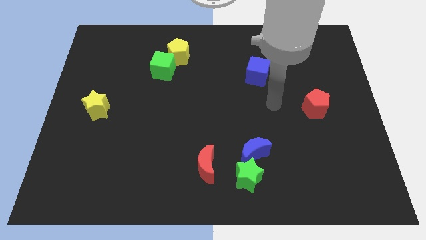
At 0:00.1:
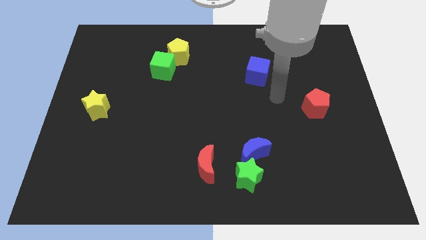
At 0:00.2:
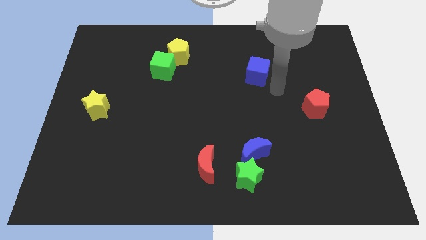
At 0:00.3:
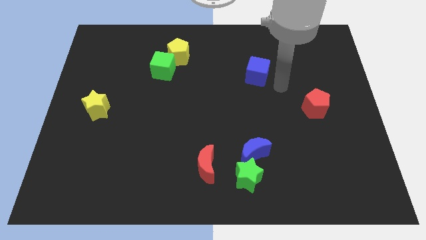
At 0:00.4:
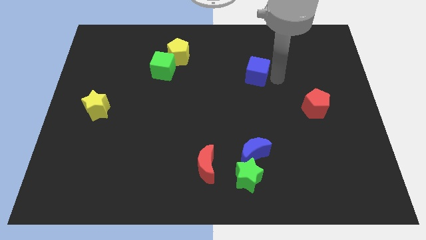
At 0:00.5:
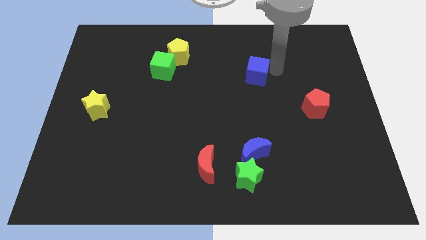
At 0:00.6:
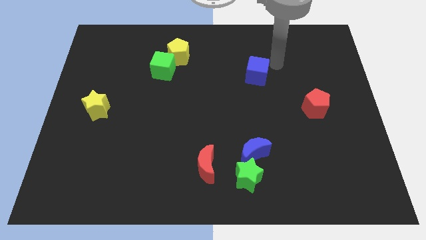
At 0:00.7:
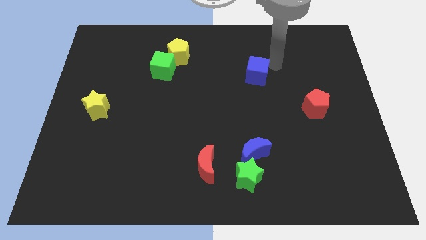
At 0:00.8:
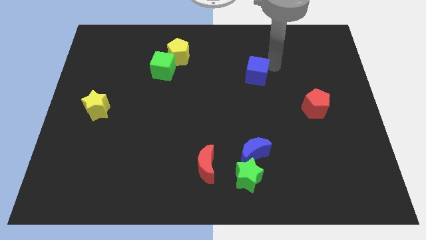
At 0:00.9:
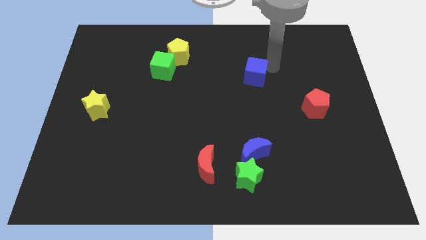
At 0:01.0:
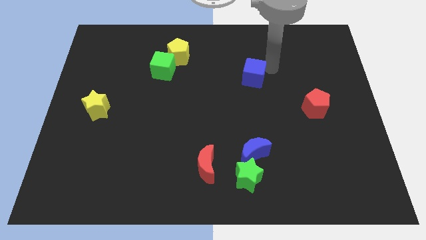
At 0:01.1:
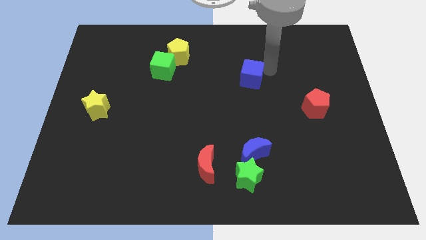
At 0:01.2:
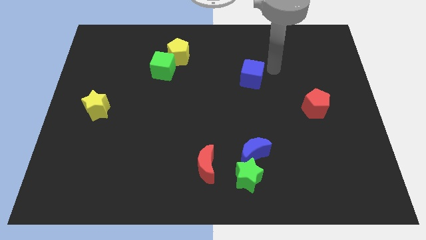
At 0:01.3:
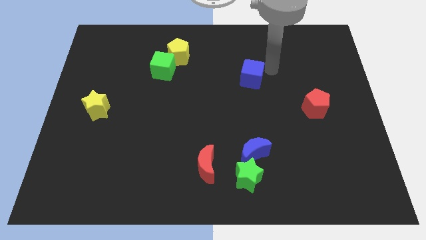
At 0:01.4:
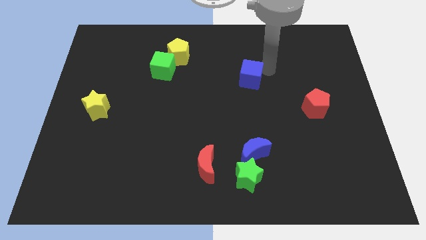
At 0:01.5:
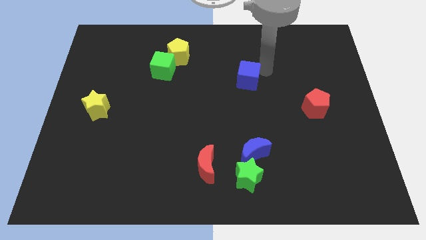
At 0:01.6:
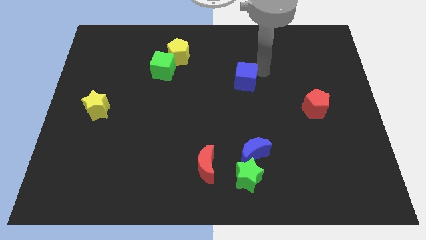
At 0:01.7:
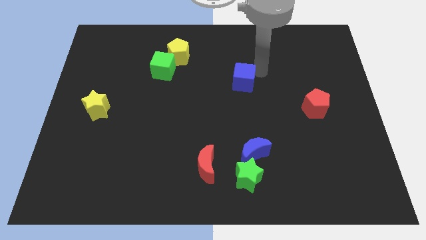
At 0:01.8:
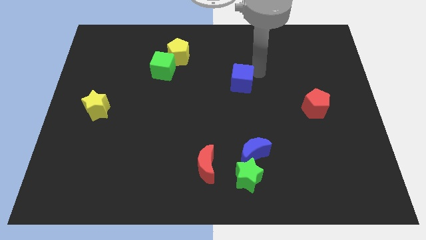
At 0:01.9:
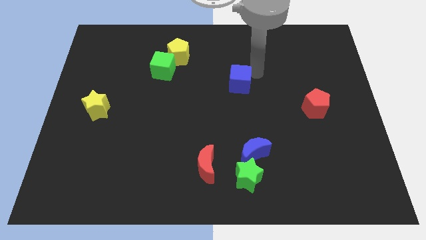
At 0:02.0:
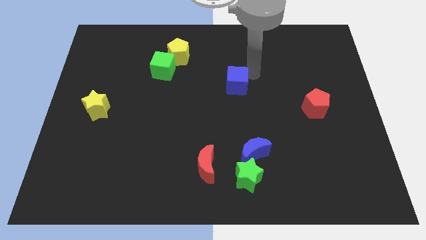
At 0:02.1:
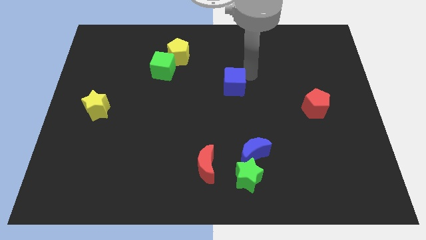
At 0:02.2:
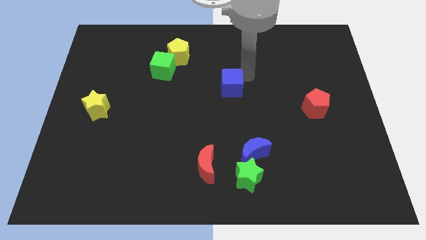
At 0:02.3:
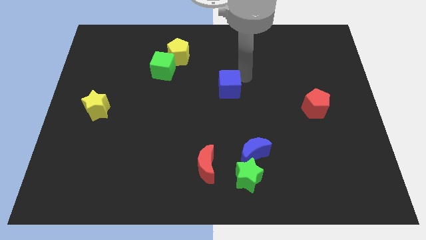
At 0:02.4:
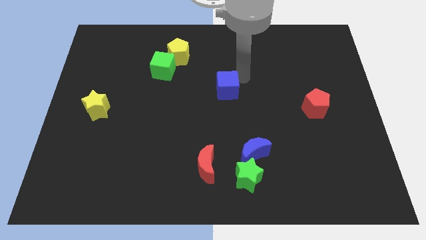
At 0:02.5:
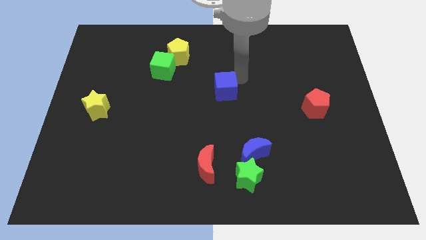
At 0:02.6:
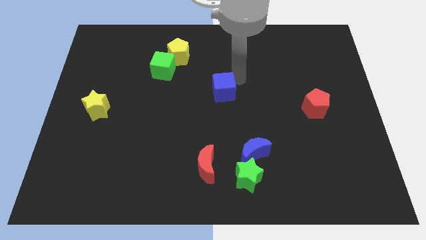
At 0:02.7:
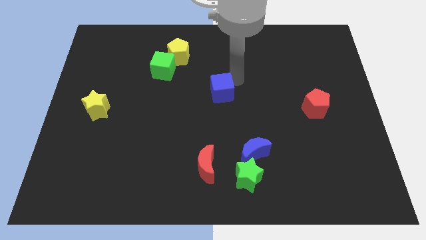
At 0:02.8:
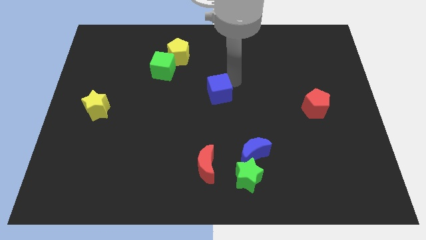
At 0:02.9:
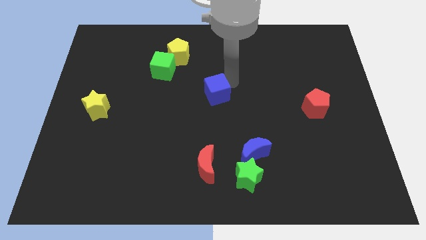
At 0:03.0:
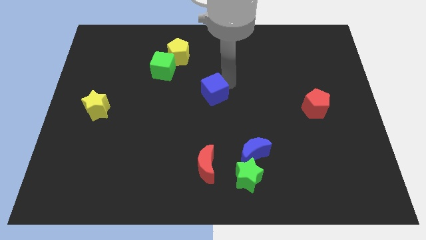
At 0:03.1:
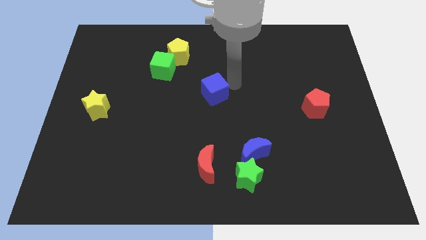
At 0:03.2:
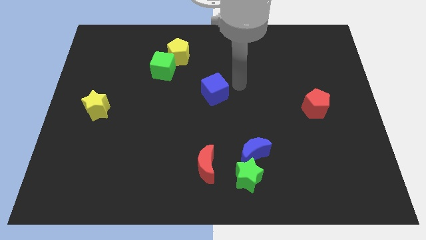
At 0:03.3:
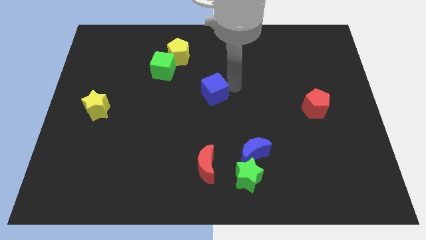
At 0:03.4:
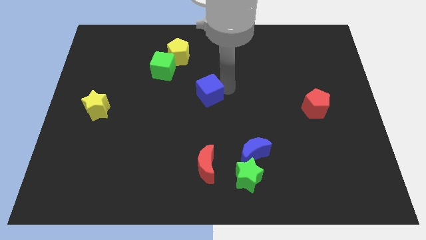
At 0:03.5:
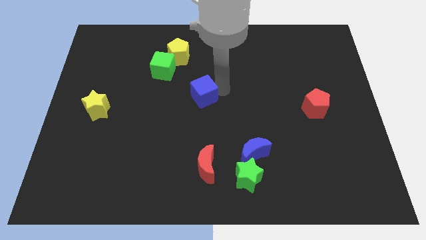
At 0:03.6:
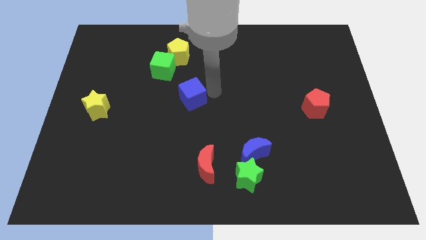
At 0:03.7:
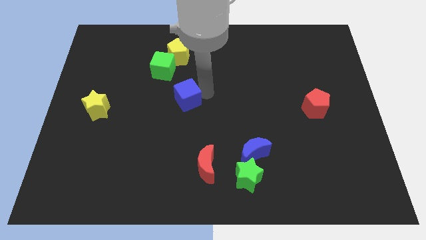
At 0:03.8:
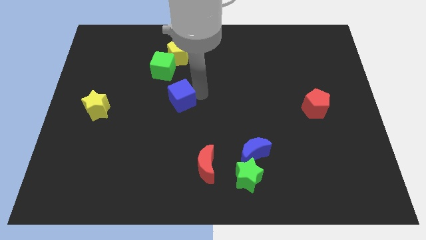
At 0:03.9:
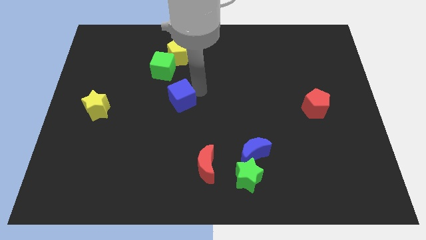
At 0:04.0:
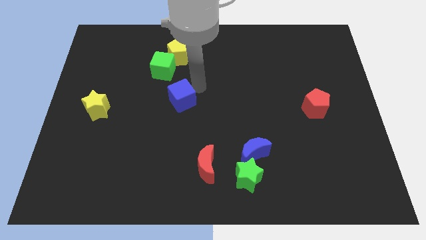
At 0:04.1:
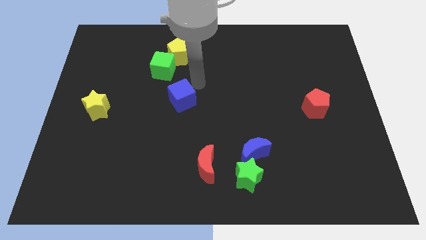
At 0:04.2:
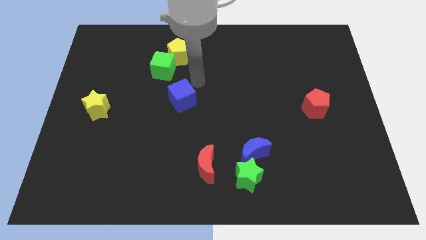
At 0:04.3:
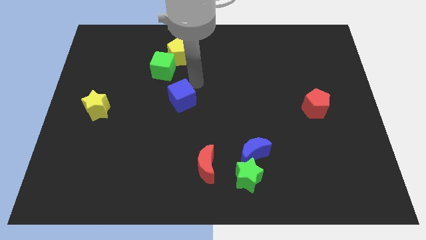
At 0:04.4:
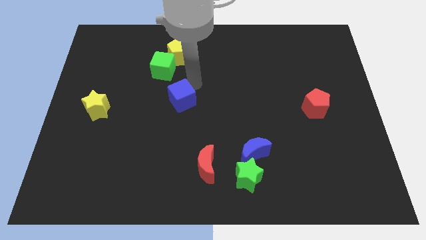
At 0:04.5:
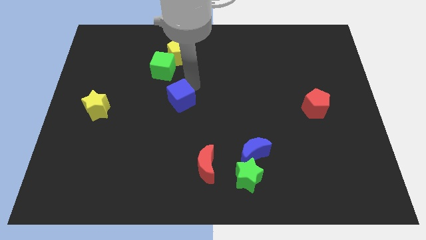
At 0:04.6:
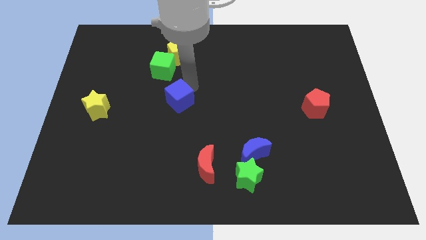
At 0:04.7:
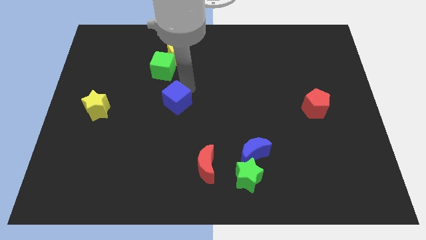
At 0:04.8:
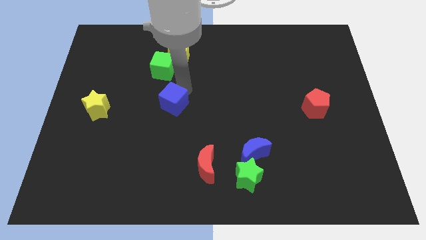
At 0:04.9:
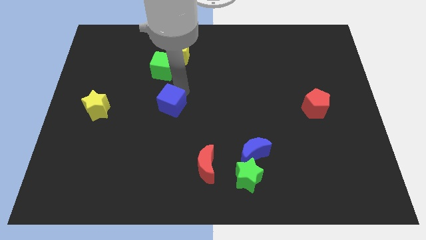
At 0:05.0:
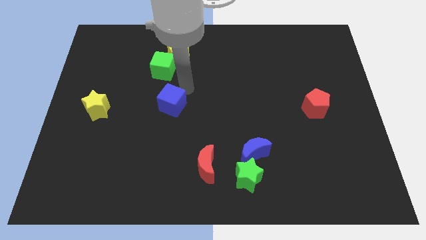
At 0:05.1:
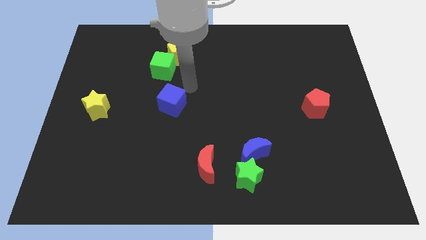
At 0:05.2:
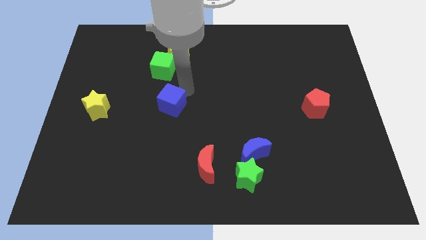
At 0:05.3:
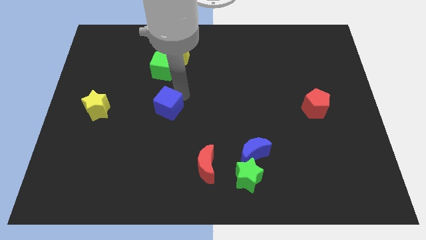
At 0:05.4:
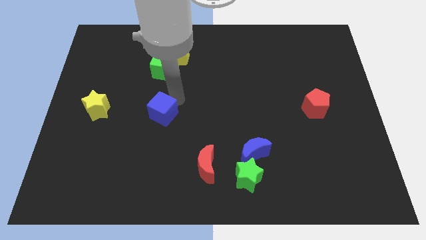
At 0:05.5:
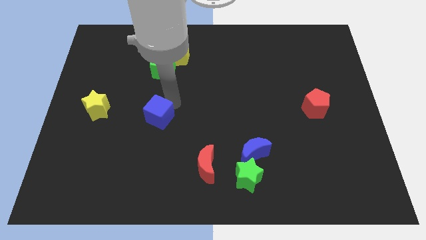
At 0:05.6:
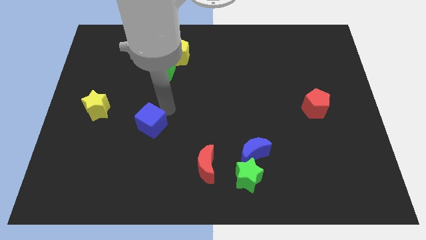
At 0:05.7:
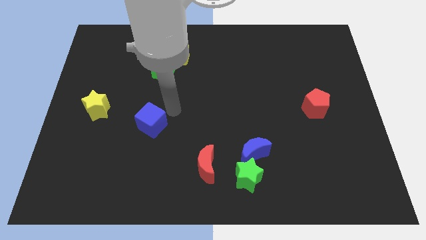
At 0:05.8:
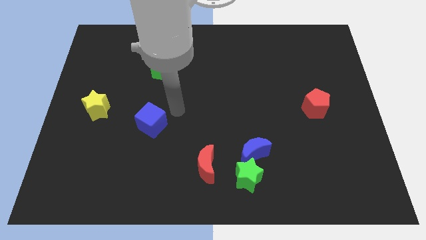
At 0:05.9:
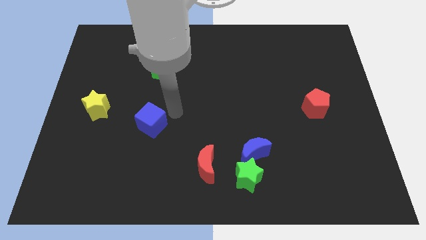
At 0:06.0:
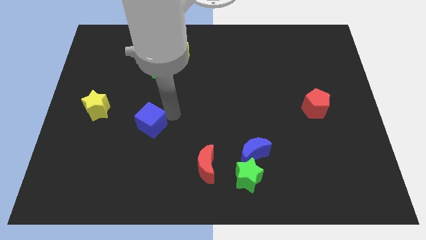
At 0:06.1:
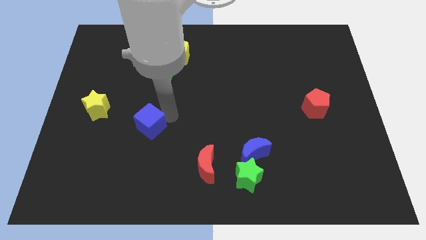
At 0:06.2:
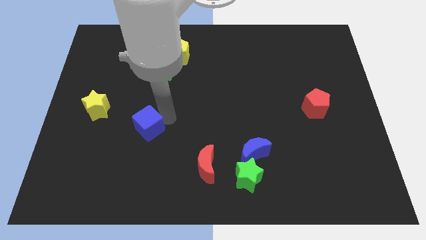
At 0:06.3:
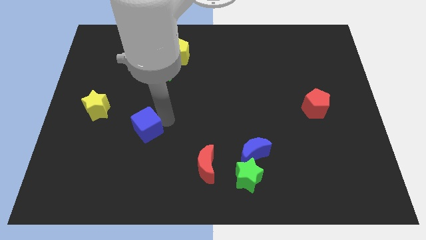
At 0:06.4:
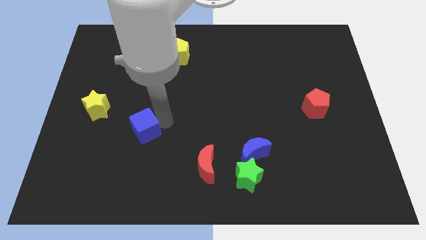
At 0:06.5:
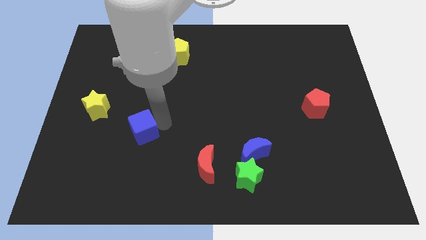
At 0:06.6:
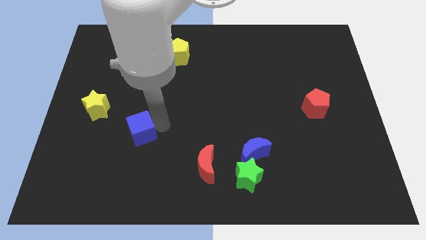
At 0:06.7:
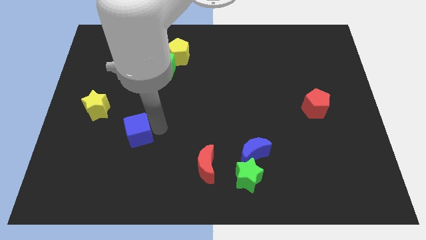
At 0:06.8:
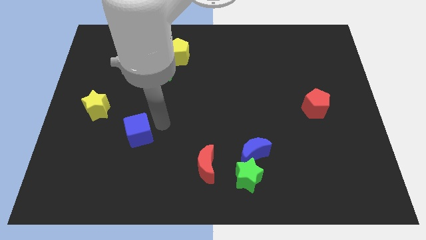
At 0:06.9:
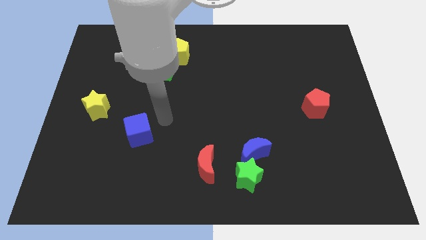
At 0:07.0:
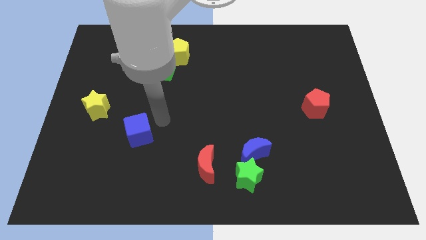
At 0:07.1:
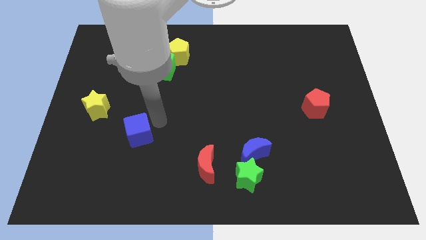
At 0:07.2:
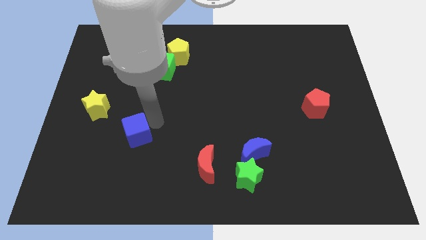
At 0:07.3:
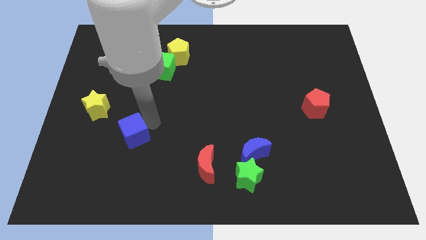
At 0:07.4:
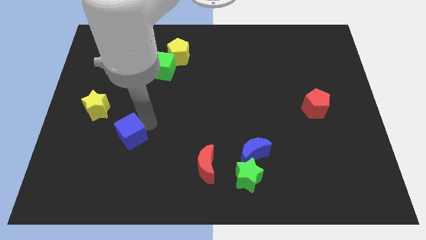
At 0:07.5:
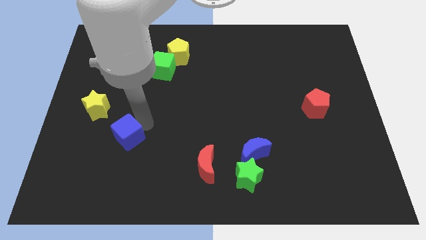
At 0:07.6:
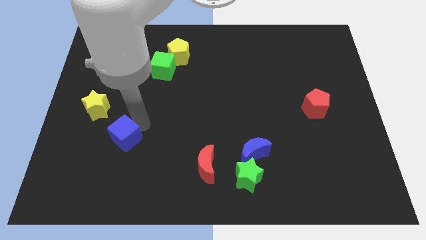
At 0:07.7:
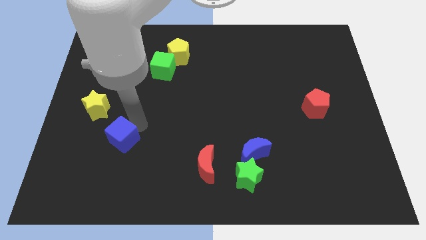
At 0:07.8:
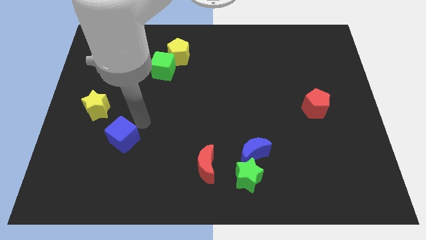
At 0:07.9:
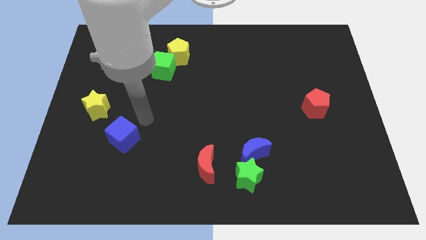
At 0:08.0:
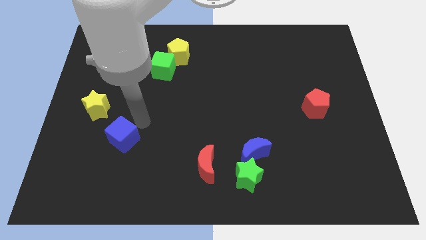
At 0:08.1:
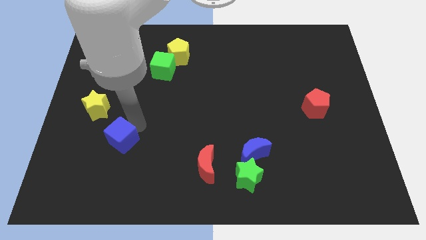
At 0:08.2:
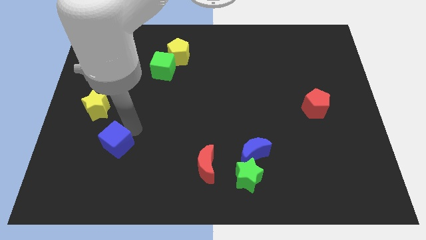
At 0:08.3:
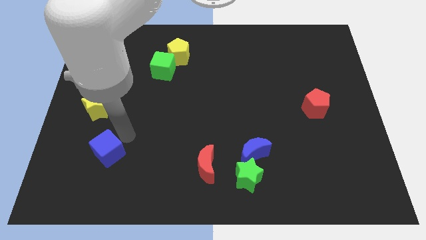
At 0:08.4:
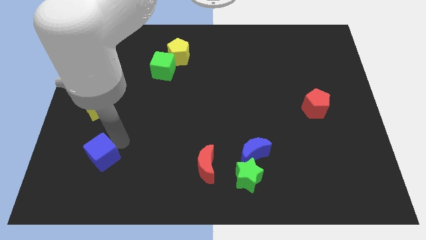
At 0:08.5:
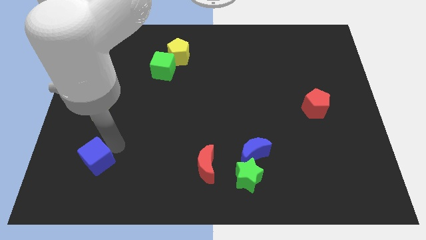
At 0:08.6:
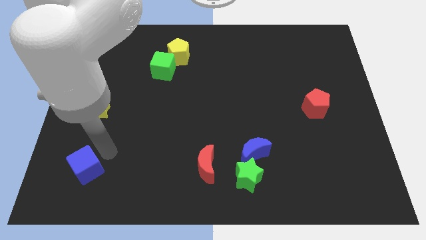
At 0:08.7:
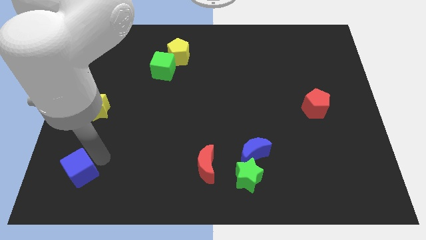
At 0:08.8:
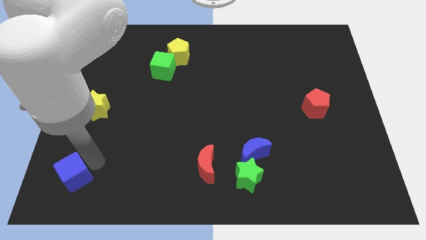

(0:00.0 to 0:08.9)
push the blue cube to the lower left corner
